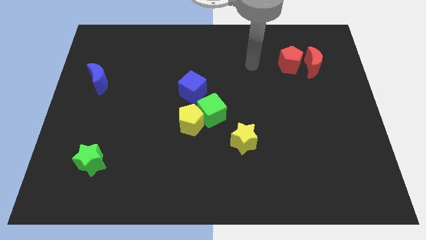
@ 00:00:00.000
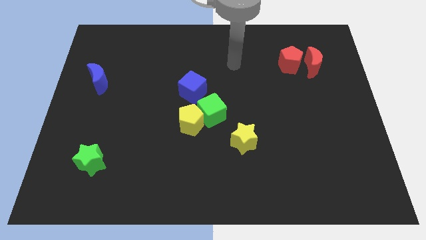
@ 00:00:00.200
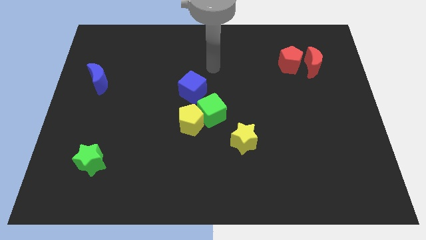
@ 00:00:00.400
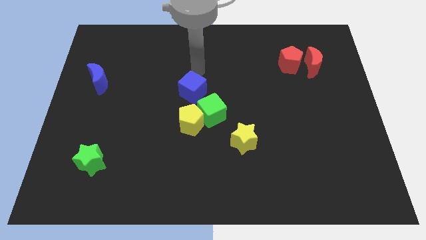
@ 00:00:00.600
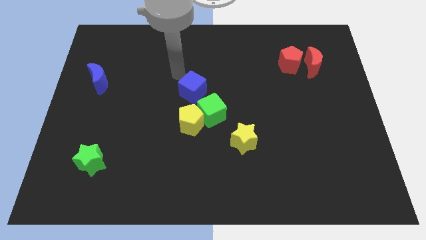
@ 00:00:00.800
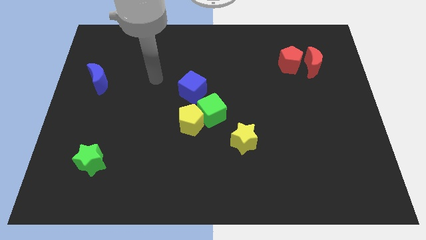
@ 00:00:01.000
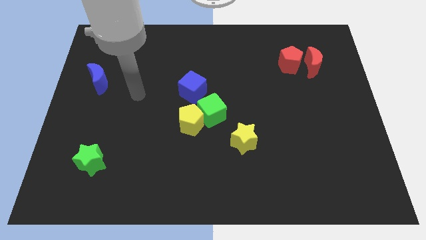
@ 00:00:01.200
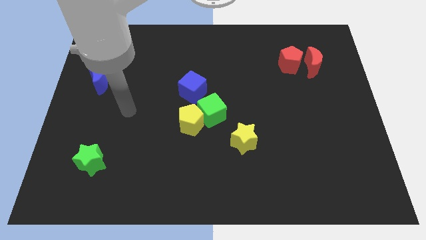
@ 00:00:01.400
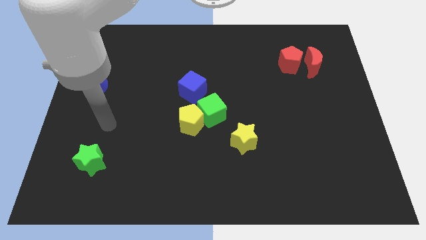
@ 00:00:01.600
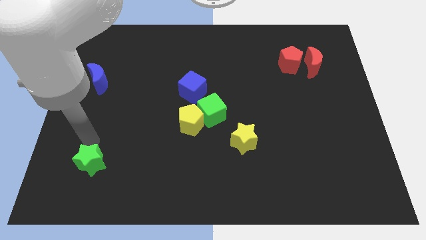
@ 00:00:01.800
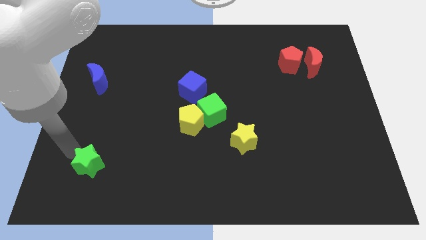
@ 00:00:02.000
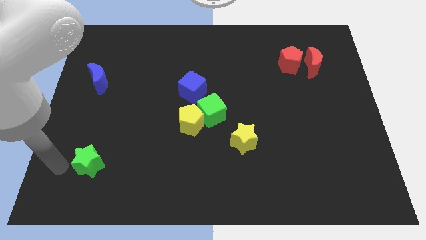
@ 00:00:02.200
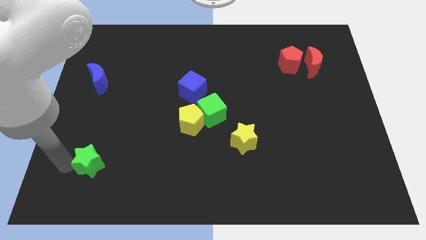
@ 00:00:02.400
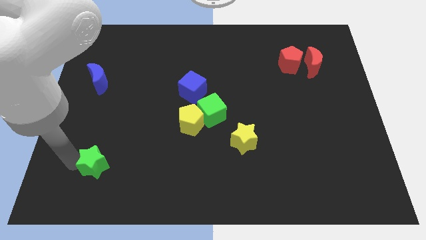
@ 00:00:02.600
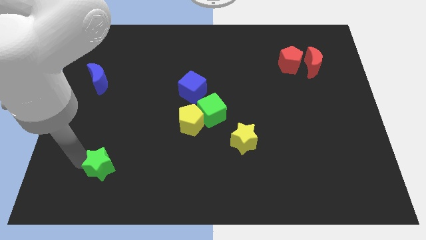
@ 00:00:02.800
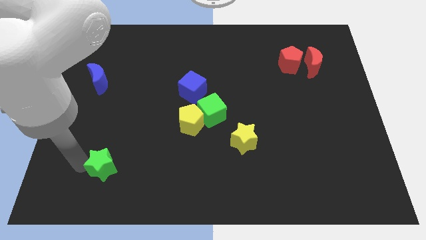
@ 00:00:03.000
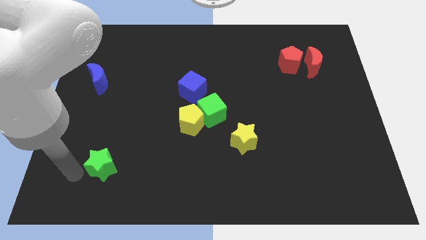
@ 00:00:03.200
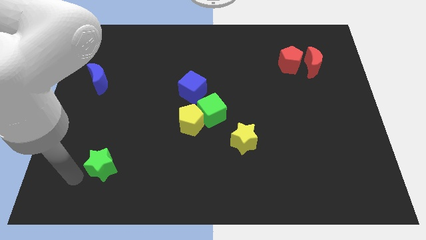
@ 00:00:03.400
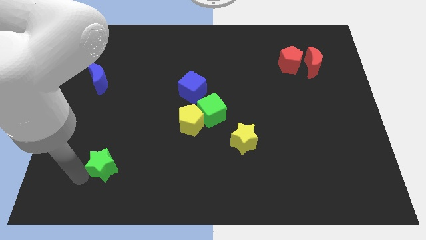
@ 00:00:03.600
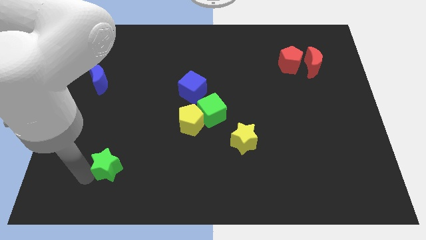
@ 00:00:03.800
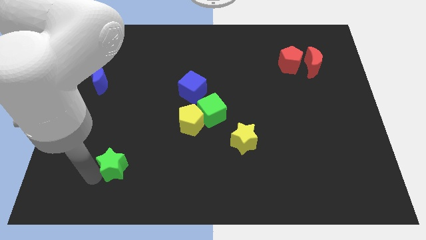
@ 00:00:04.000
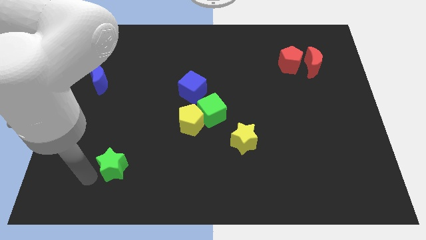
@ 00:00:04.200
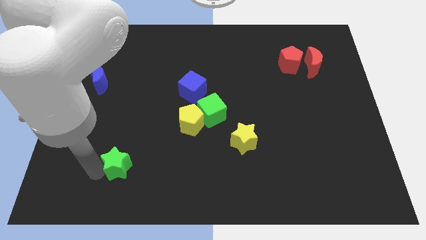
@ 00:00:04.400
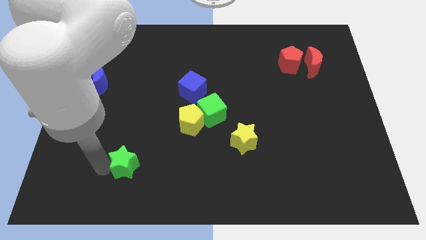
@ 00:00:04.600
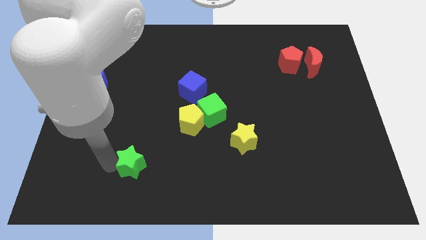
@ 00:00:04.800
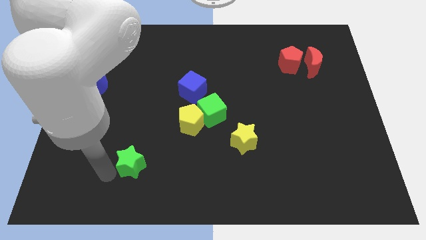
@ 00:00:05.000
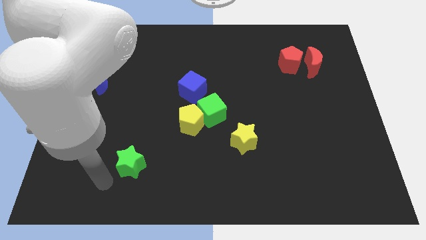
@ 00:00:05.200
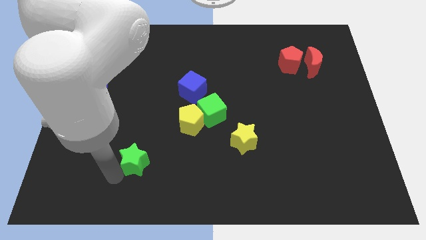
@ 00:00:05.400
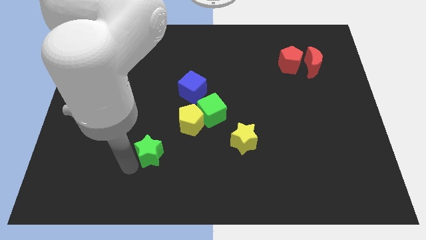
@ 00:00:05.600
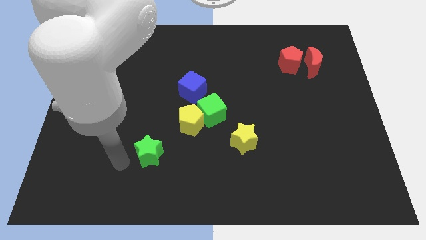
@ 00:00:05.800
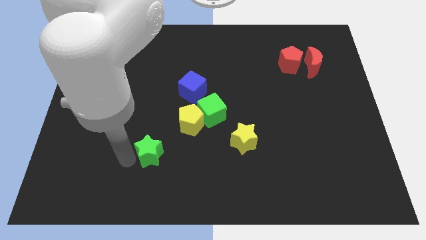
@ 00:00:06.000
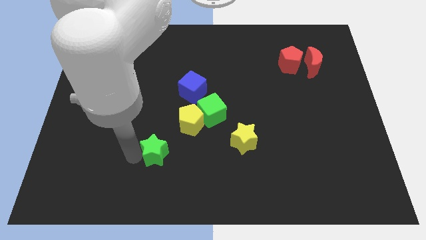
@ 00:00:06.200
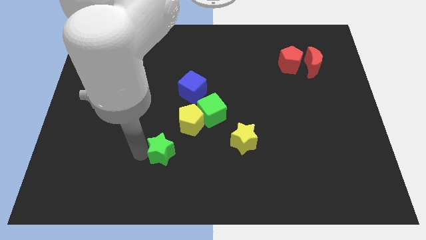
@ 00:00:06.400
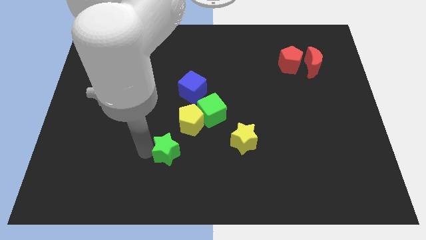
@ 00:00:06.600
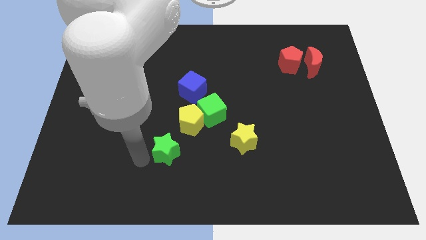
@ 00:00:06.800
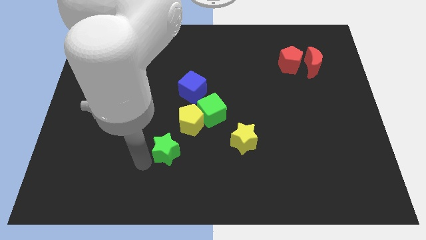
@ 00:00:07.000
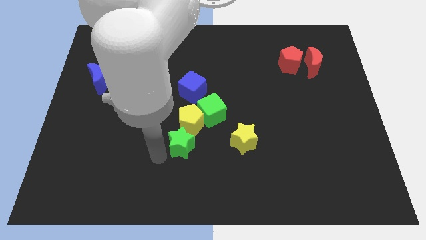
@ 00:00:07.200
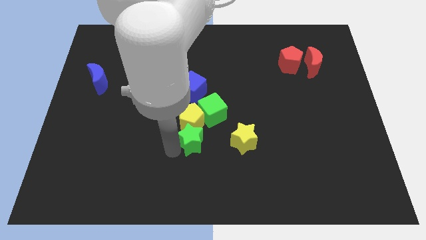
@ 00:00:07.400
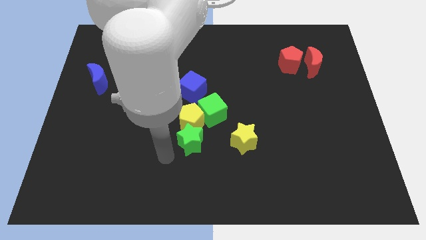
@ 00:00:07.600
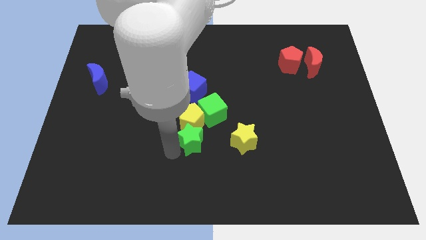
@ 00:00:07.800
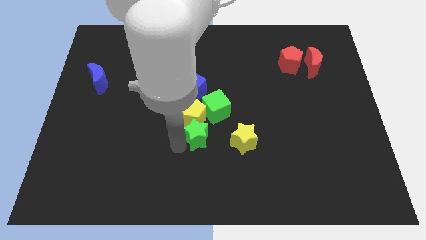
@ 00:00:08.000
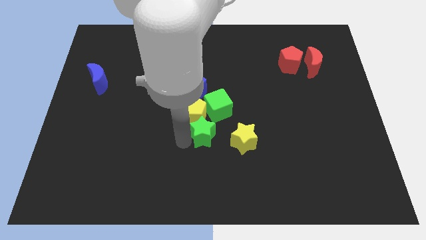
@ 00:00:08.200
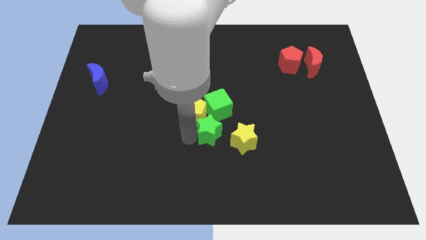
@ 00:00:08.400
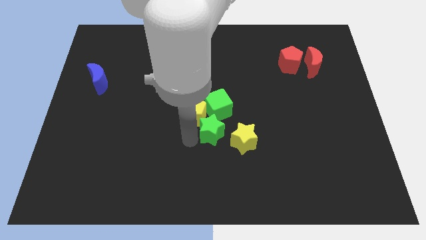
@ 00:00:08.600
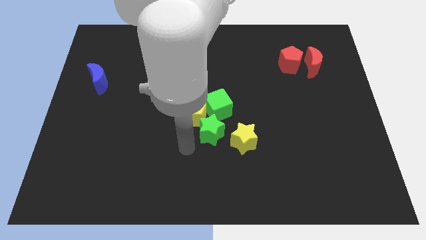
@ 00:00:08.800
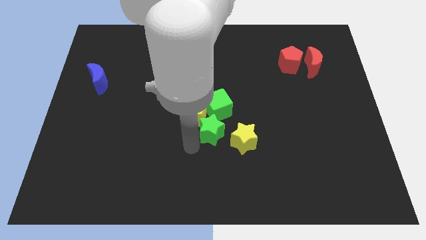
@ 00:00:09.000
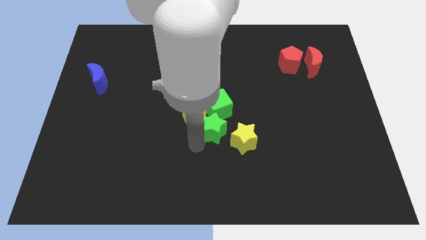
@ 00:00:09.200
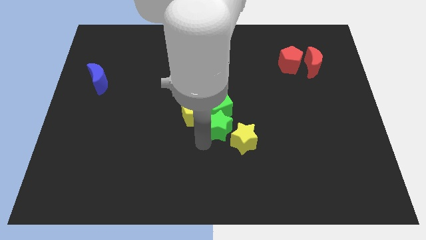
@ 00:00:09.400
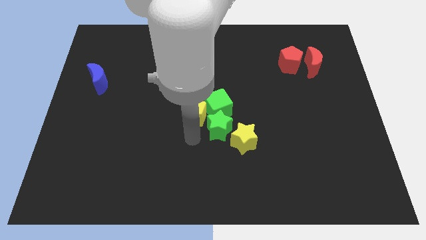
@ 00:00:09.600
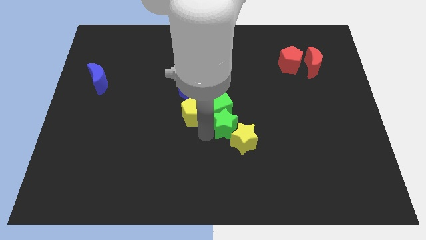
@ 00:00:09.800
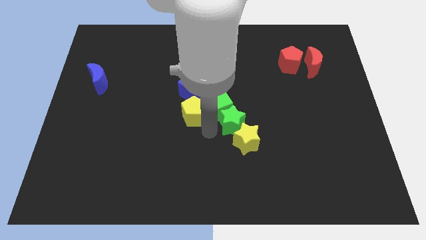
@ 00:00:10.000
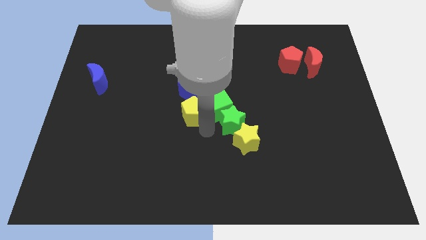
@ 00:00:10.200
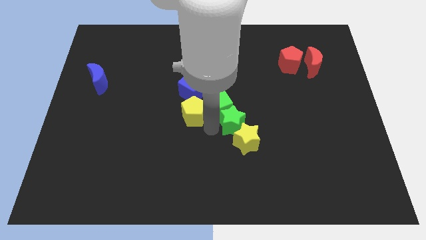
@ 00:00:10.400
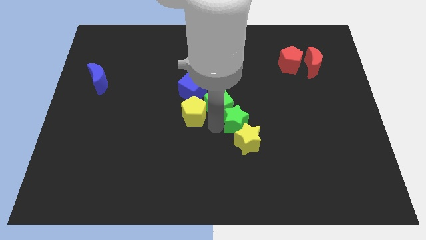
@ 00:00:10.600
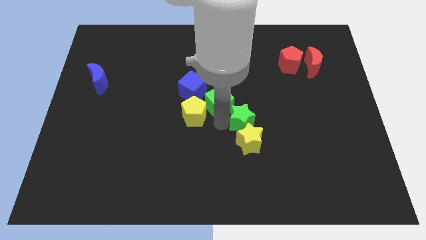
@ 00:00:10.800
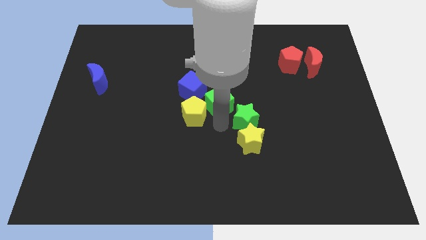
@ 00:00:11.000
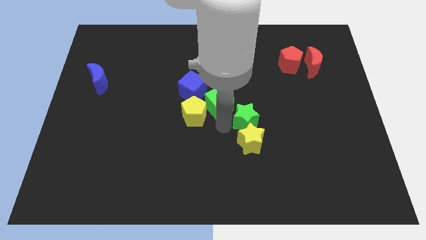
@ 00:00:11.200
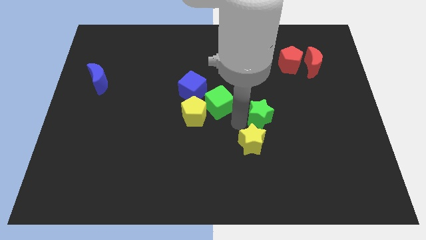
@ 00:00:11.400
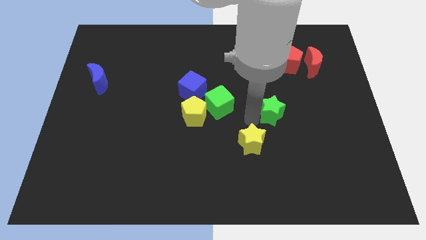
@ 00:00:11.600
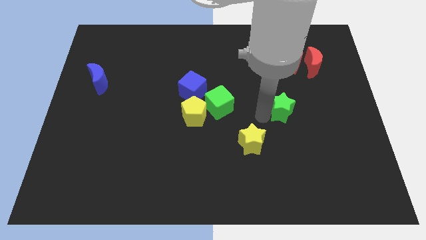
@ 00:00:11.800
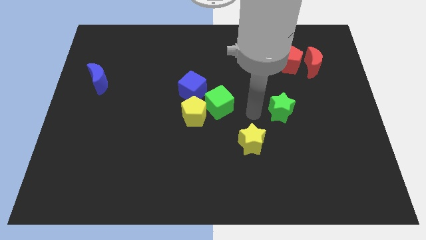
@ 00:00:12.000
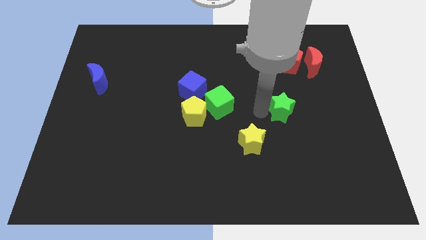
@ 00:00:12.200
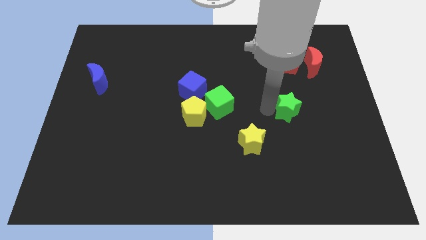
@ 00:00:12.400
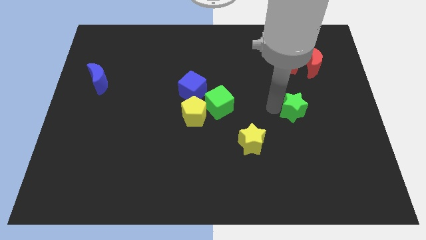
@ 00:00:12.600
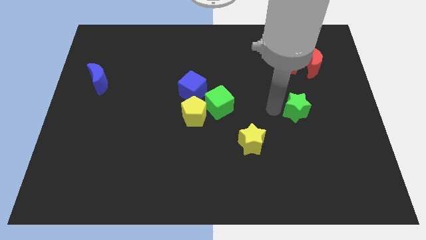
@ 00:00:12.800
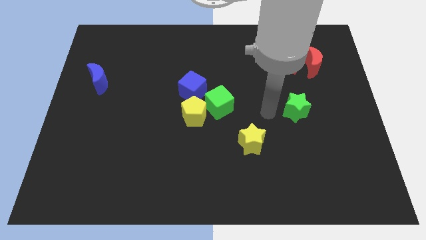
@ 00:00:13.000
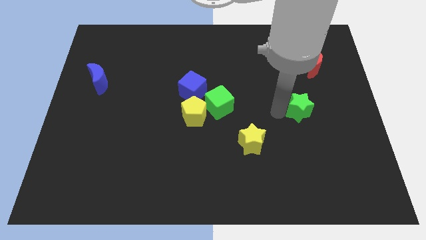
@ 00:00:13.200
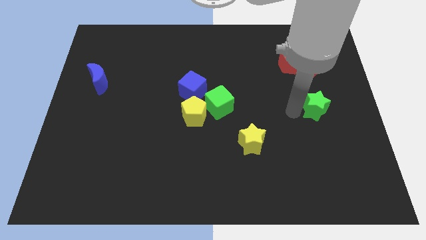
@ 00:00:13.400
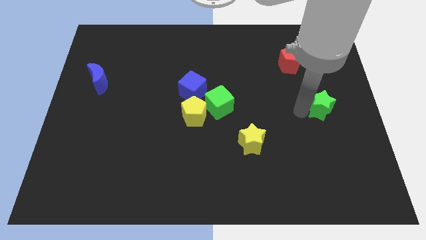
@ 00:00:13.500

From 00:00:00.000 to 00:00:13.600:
push the green star to the center right

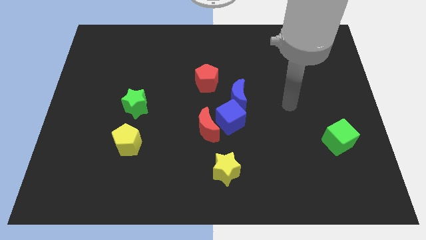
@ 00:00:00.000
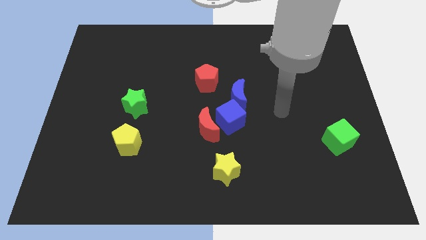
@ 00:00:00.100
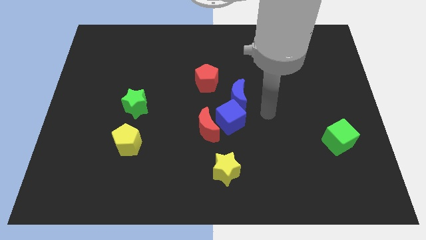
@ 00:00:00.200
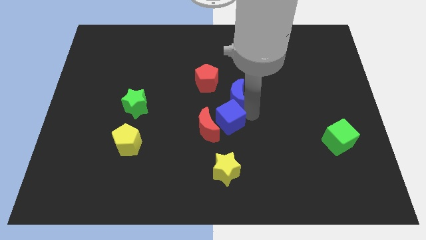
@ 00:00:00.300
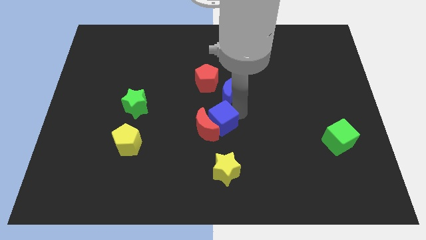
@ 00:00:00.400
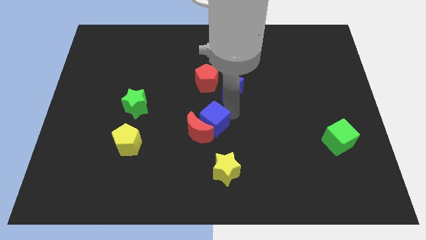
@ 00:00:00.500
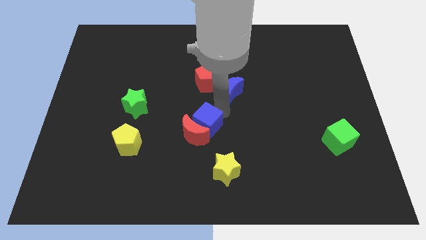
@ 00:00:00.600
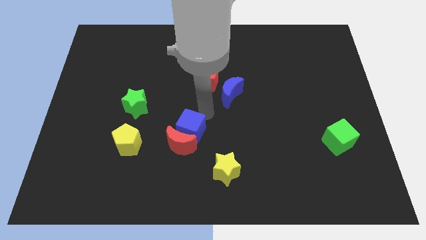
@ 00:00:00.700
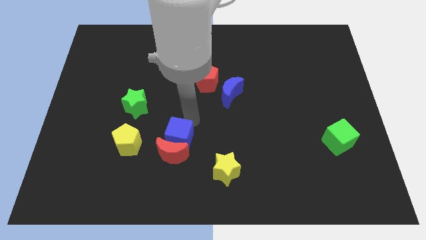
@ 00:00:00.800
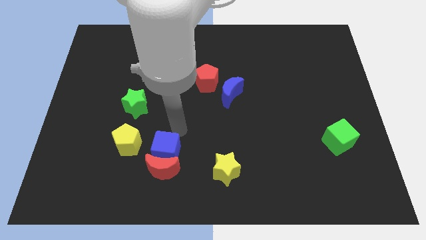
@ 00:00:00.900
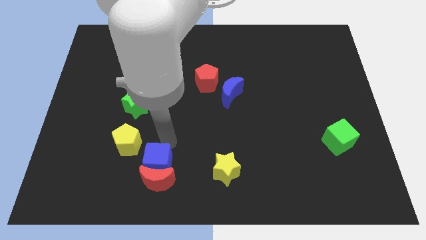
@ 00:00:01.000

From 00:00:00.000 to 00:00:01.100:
put the red moon to the bottom
